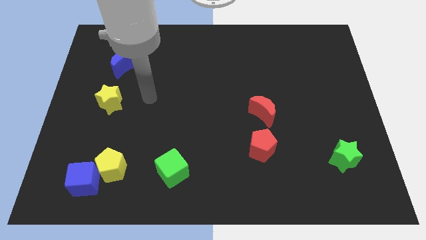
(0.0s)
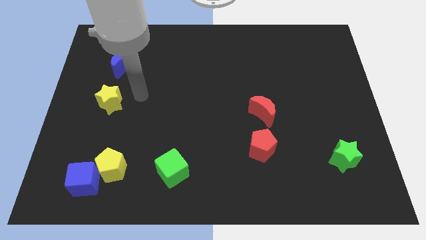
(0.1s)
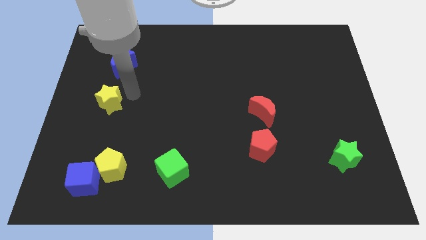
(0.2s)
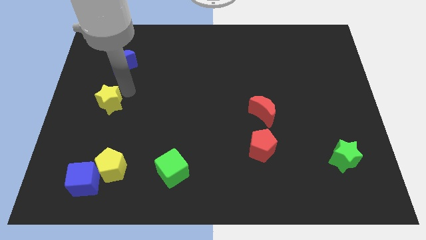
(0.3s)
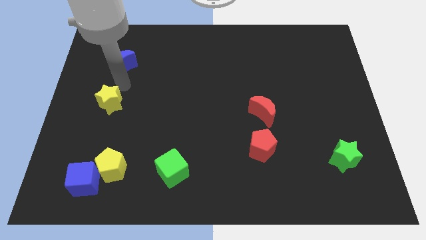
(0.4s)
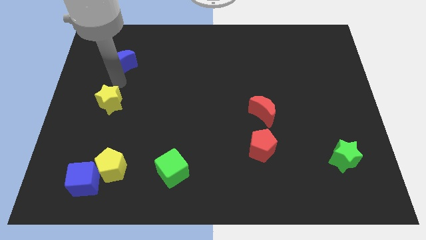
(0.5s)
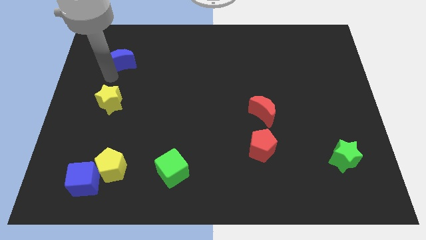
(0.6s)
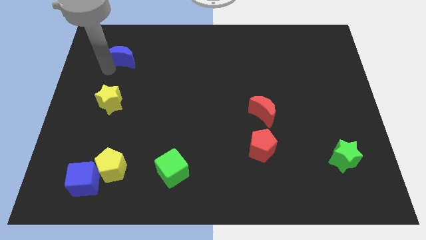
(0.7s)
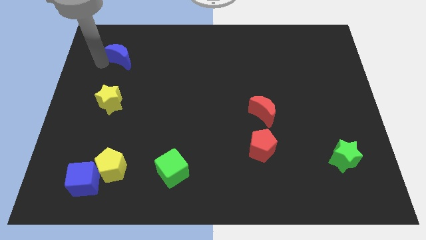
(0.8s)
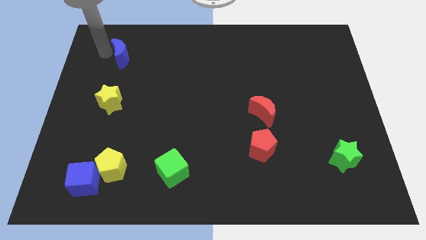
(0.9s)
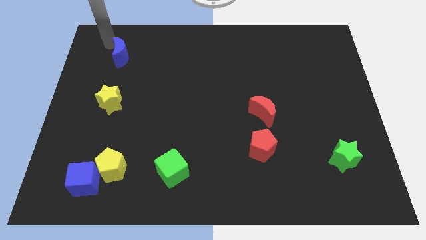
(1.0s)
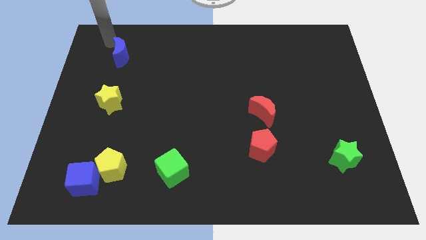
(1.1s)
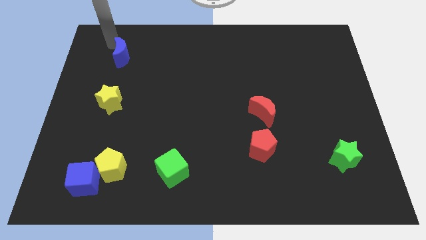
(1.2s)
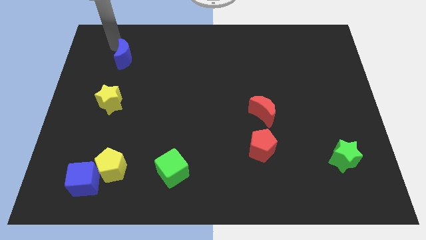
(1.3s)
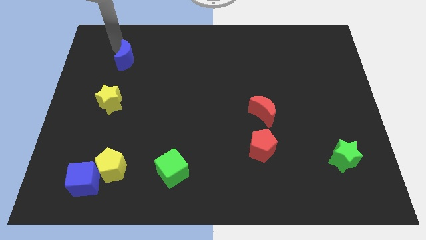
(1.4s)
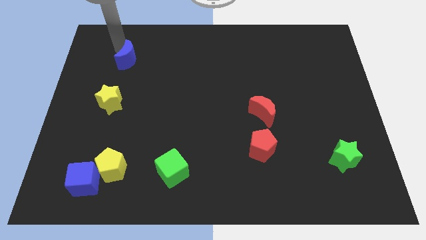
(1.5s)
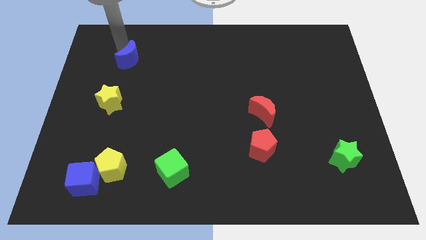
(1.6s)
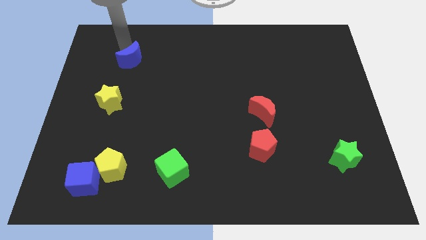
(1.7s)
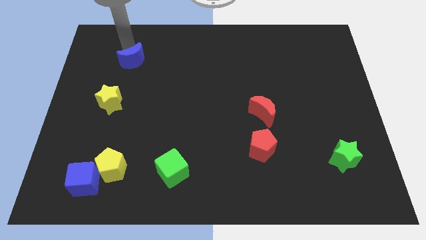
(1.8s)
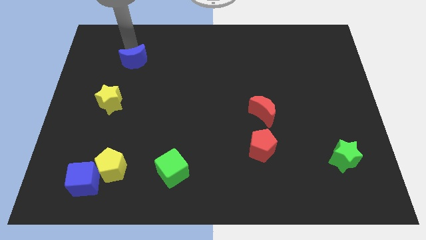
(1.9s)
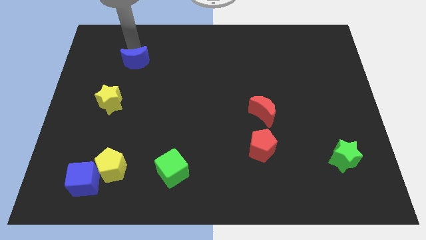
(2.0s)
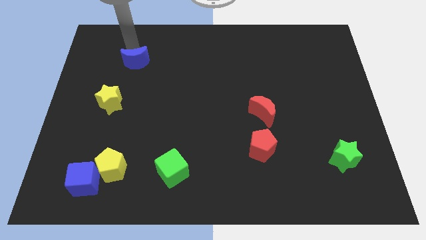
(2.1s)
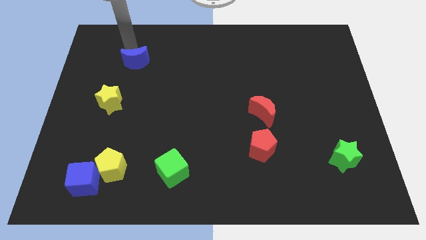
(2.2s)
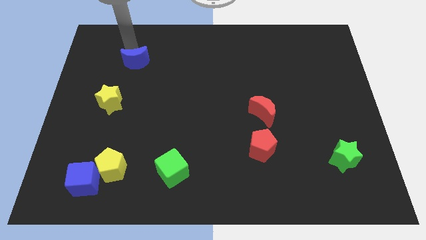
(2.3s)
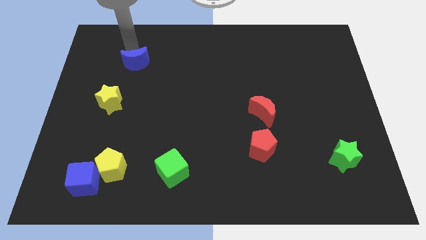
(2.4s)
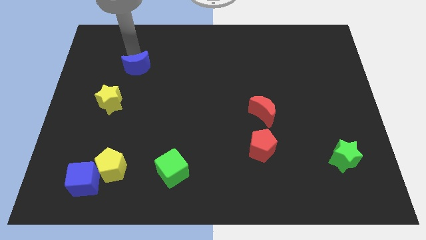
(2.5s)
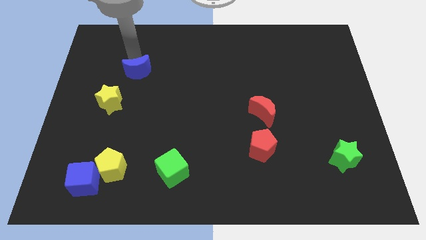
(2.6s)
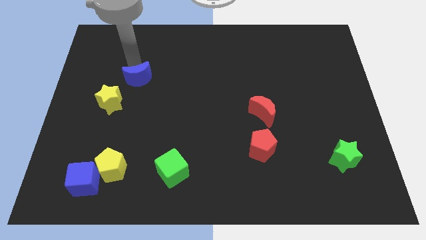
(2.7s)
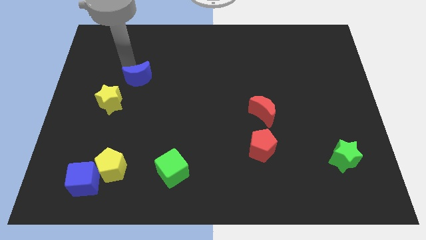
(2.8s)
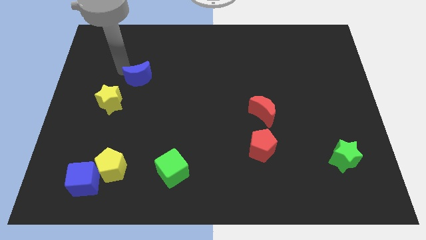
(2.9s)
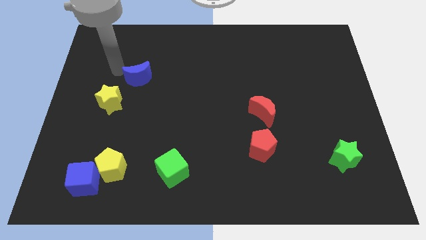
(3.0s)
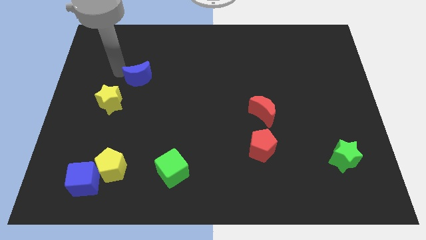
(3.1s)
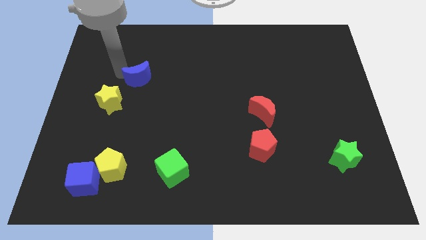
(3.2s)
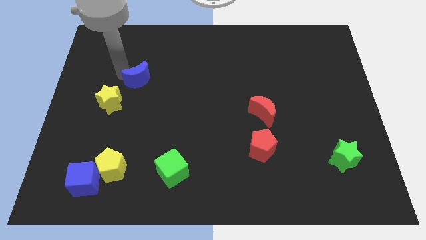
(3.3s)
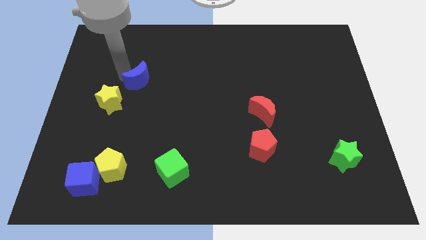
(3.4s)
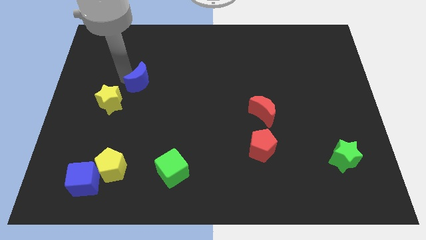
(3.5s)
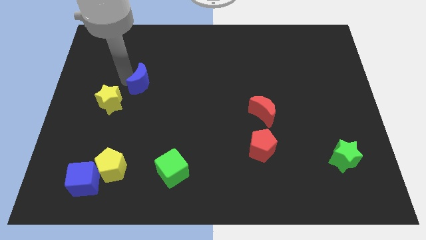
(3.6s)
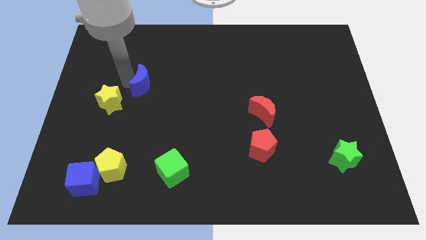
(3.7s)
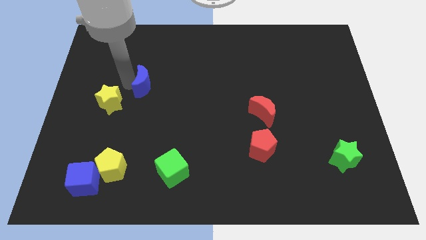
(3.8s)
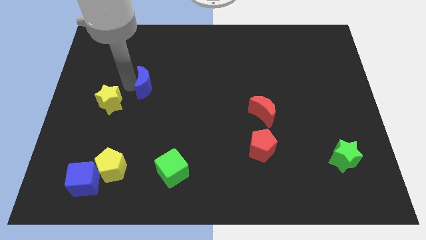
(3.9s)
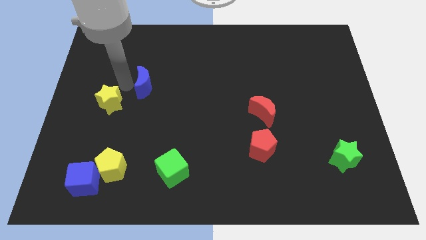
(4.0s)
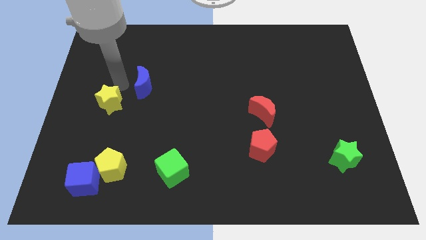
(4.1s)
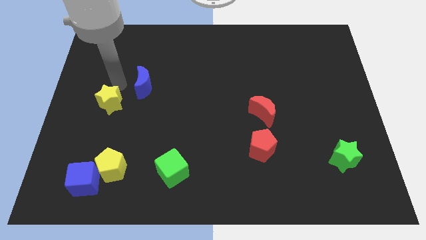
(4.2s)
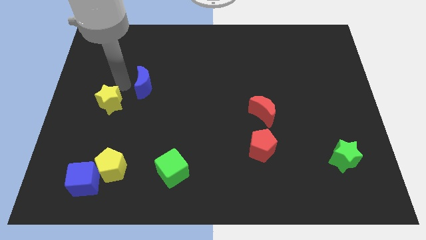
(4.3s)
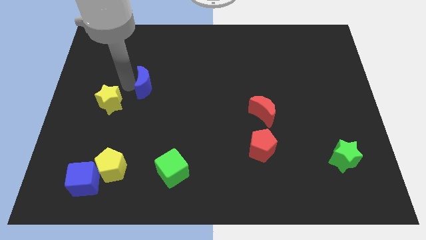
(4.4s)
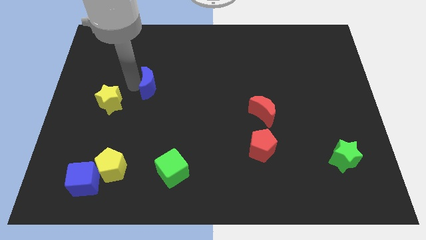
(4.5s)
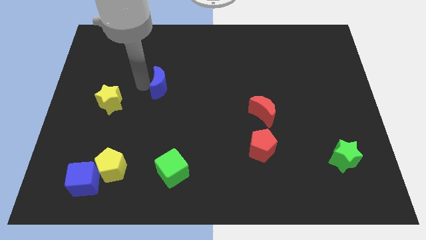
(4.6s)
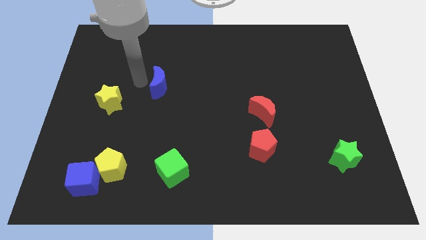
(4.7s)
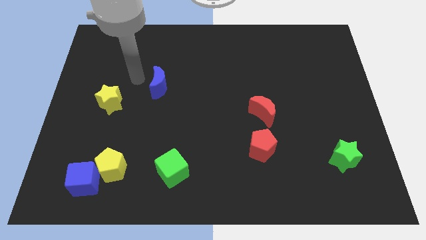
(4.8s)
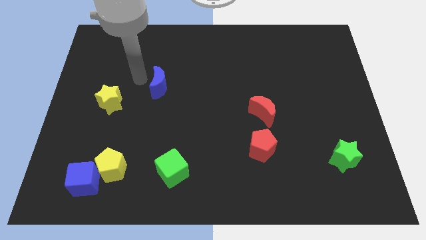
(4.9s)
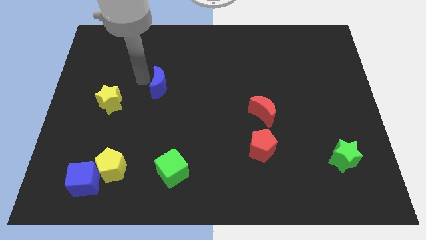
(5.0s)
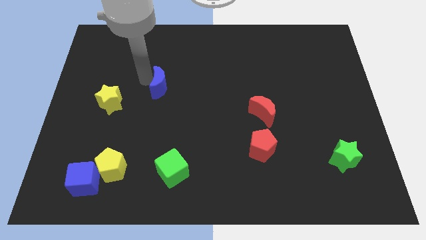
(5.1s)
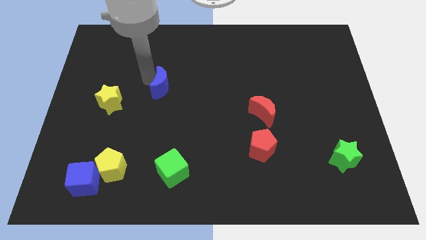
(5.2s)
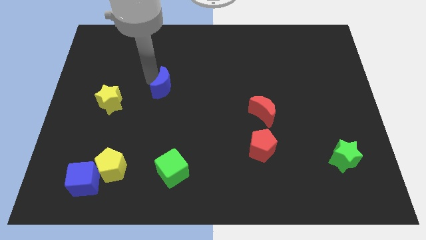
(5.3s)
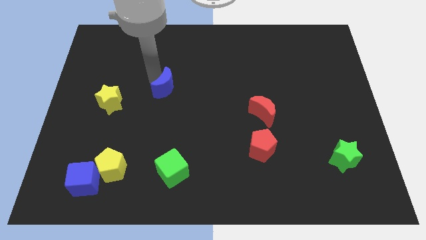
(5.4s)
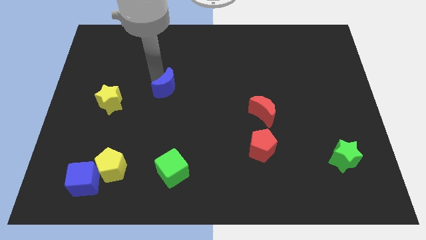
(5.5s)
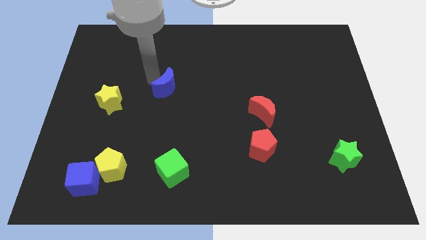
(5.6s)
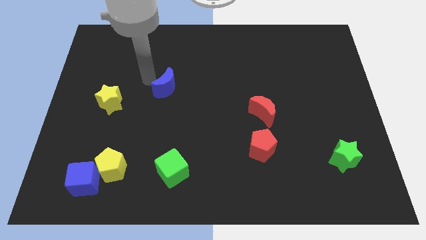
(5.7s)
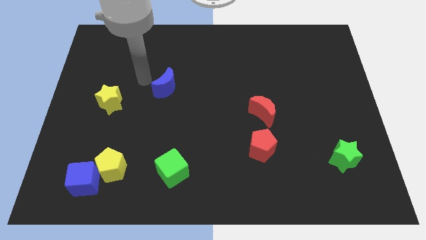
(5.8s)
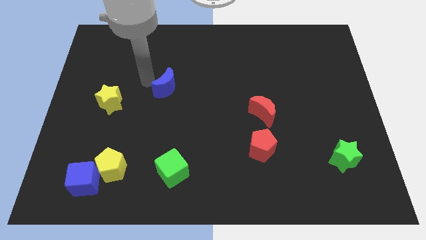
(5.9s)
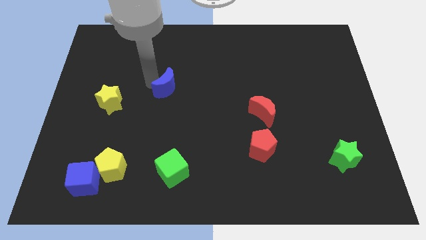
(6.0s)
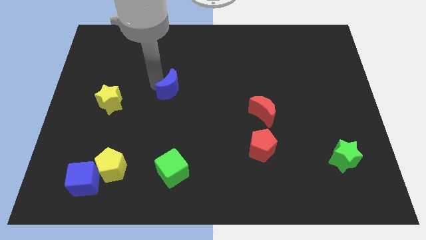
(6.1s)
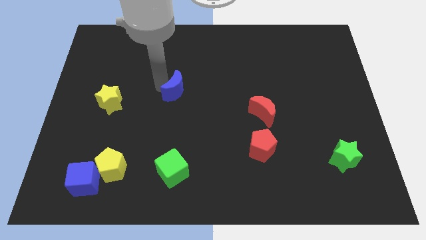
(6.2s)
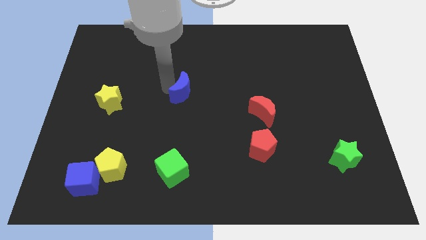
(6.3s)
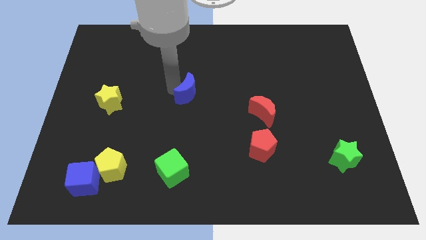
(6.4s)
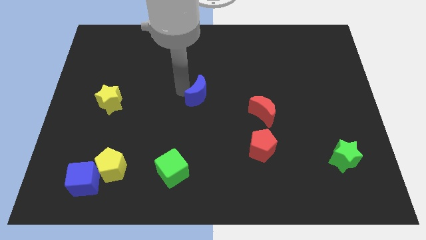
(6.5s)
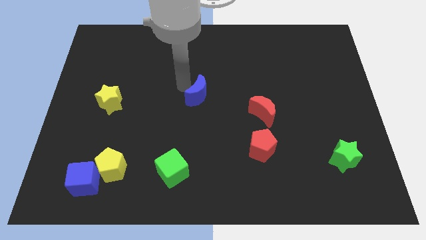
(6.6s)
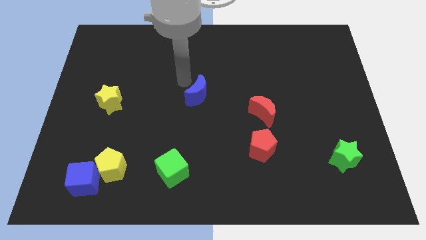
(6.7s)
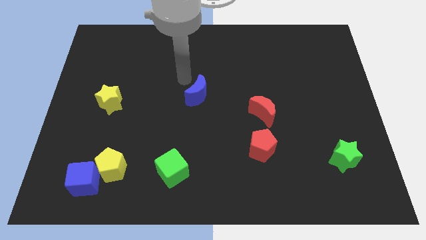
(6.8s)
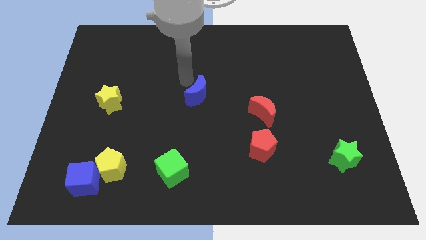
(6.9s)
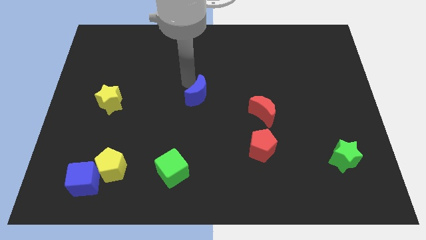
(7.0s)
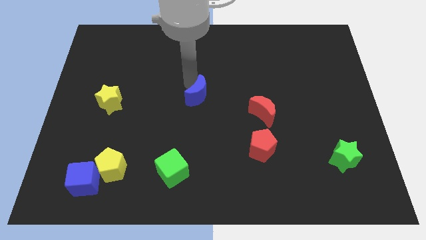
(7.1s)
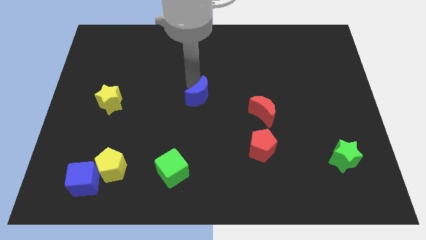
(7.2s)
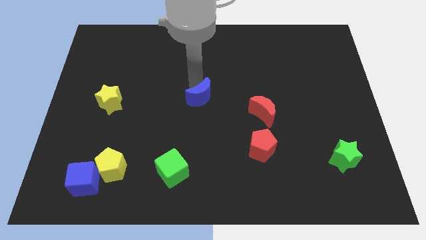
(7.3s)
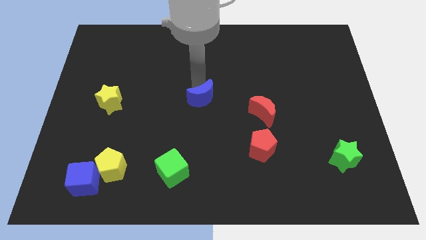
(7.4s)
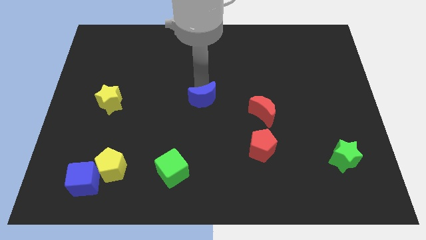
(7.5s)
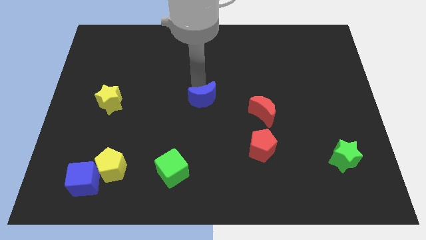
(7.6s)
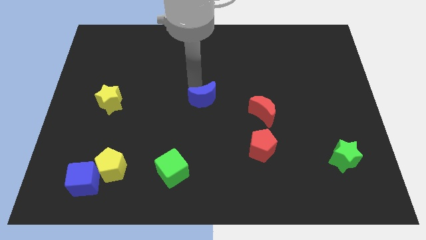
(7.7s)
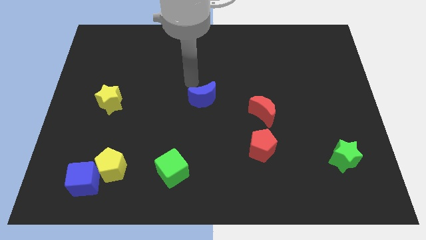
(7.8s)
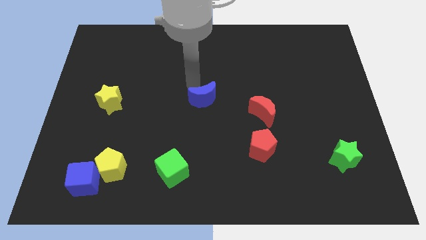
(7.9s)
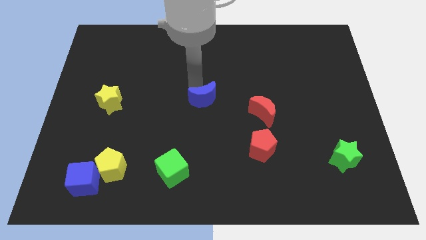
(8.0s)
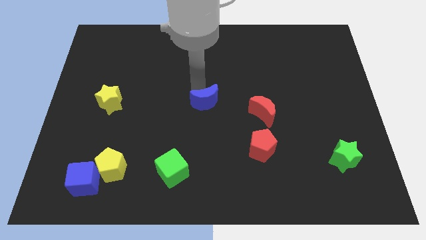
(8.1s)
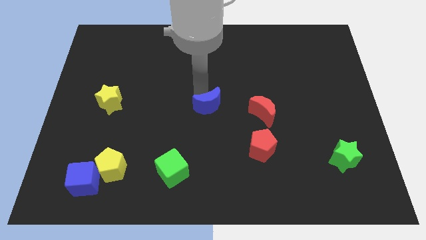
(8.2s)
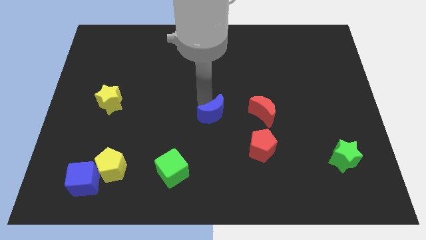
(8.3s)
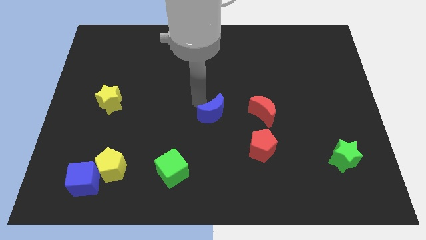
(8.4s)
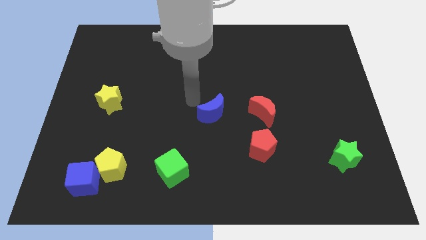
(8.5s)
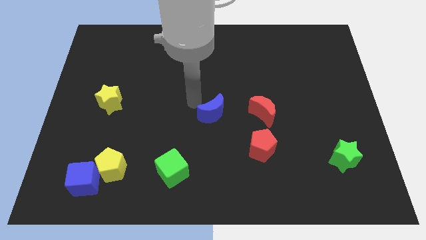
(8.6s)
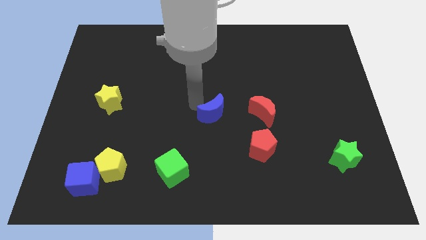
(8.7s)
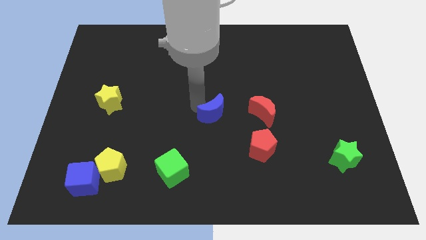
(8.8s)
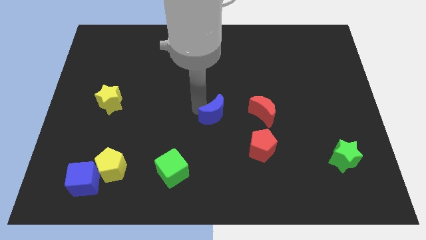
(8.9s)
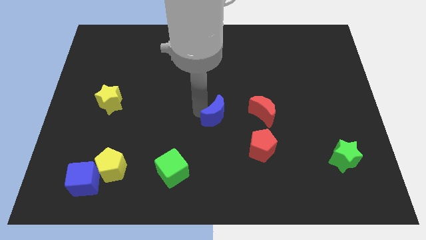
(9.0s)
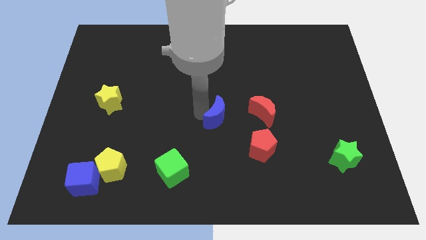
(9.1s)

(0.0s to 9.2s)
put the blue moon to the top left side of the red pentagon
